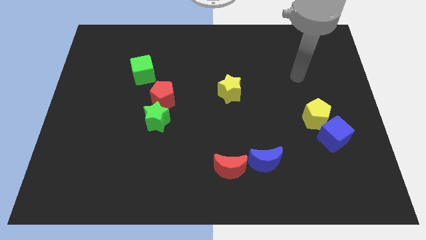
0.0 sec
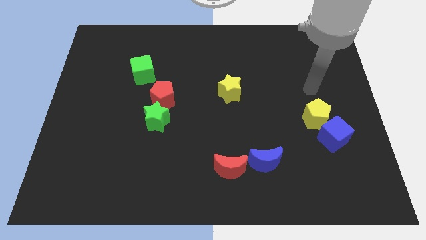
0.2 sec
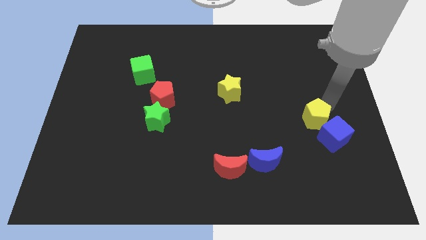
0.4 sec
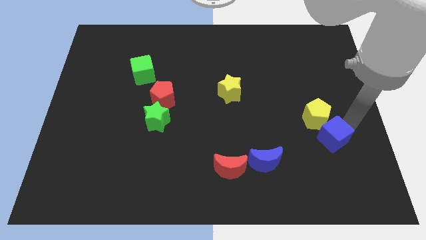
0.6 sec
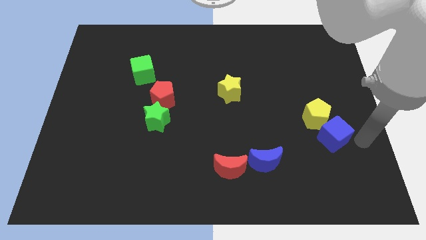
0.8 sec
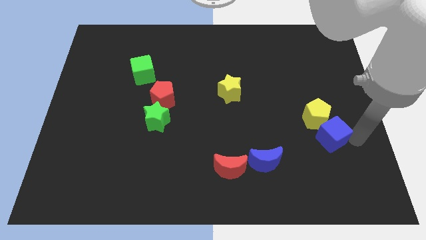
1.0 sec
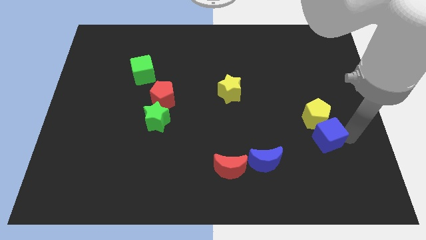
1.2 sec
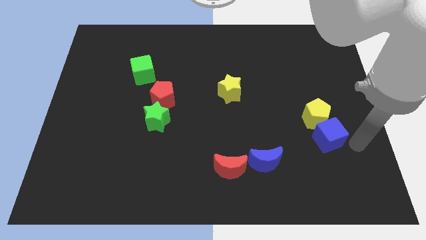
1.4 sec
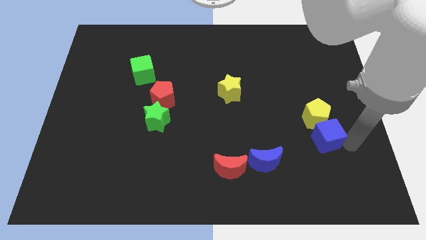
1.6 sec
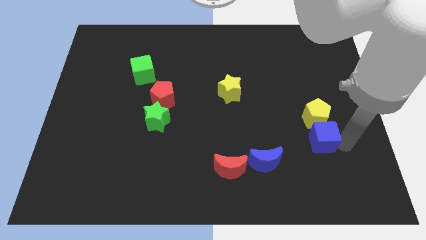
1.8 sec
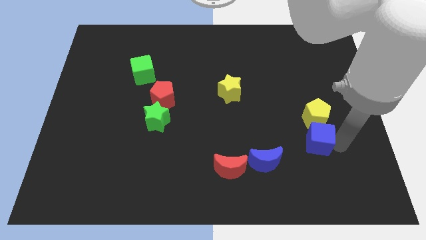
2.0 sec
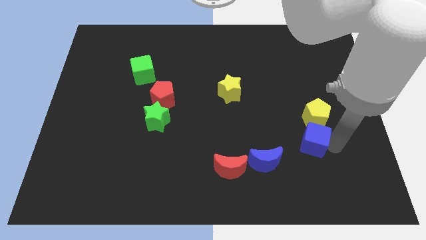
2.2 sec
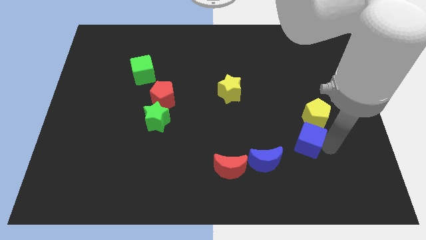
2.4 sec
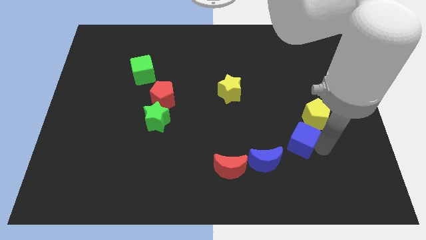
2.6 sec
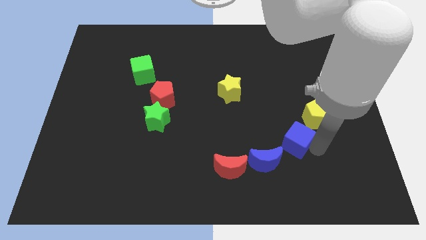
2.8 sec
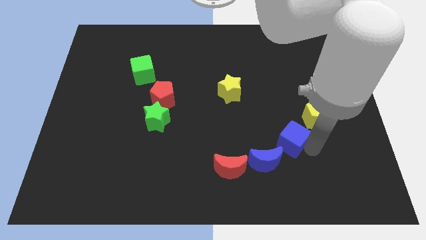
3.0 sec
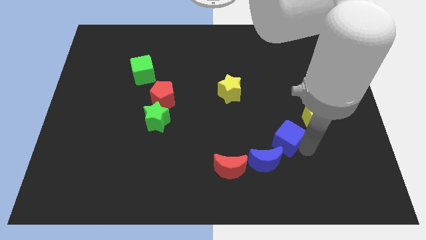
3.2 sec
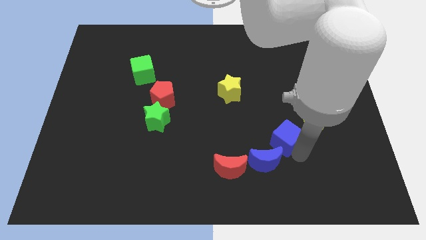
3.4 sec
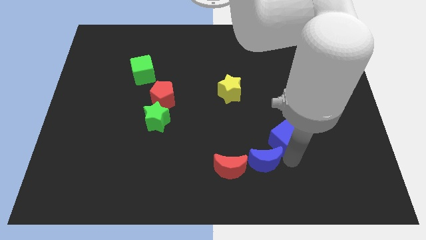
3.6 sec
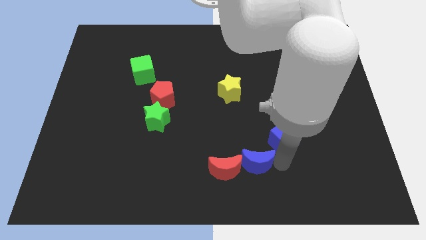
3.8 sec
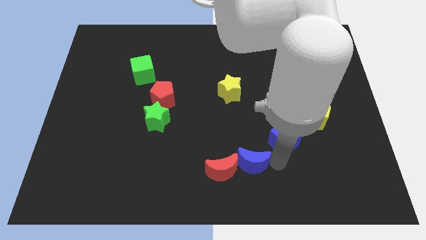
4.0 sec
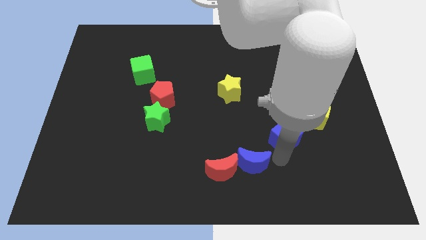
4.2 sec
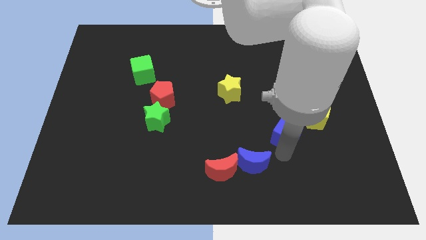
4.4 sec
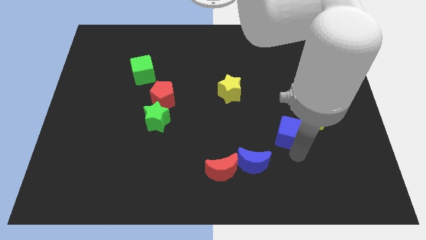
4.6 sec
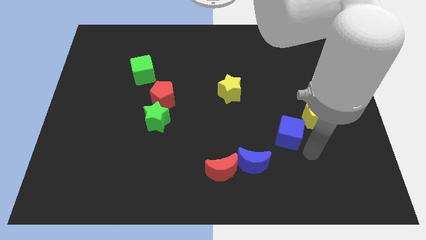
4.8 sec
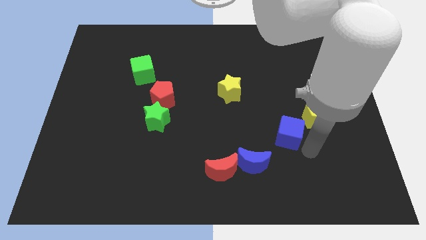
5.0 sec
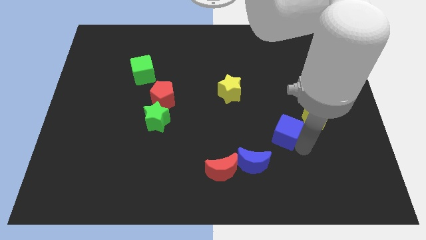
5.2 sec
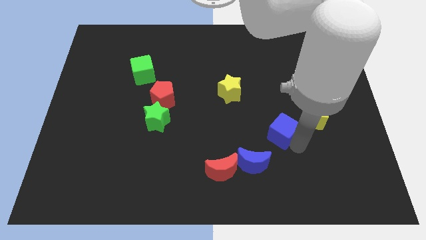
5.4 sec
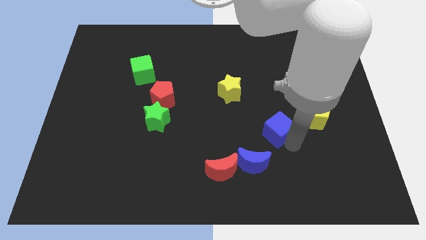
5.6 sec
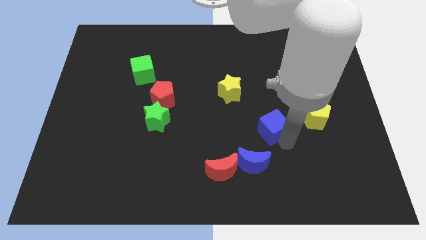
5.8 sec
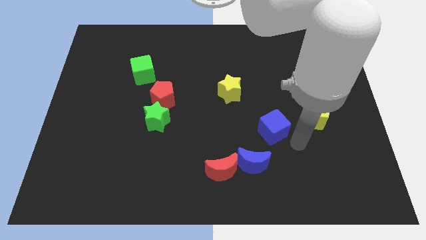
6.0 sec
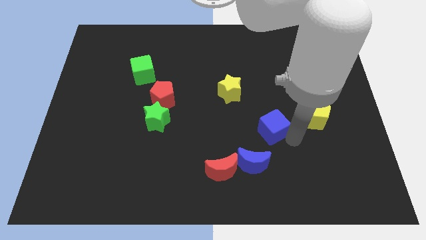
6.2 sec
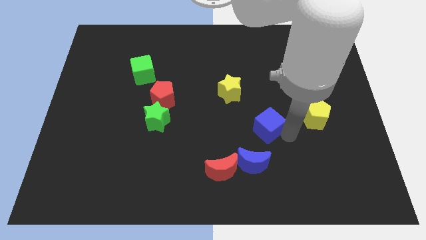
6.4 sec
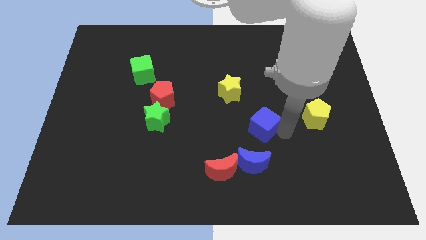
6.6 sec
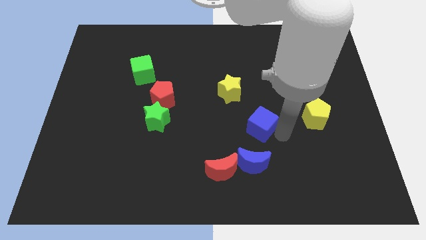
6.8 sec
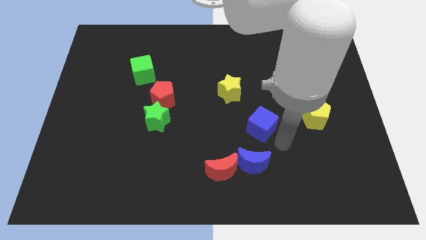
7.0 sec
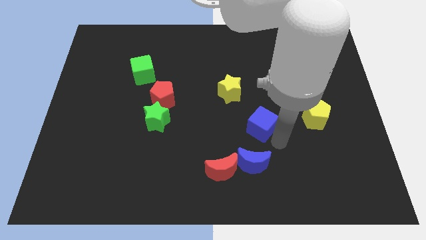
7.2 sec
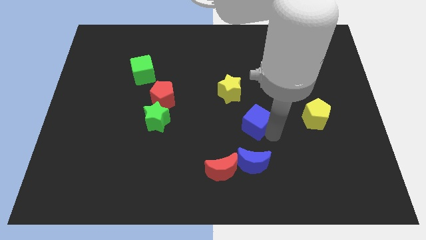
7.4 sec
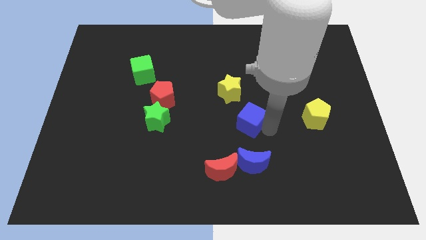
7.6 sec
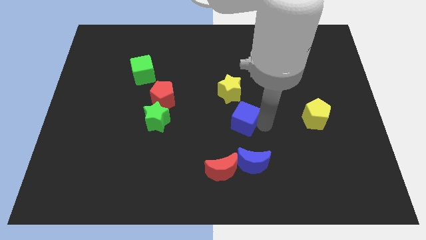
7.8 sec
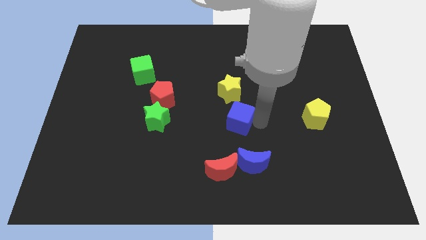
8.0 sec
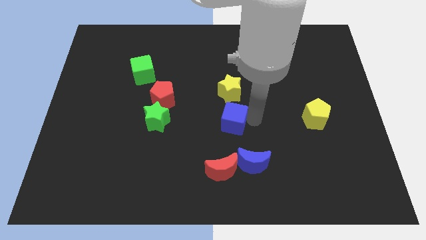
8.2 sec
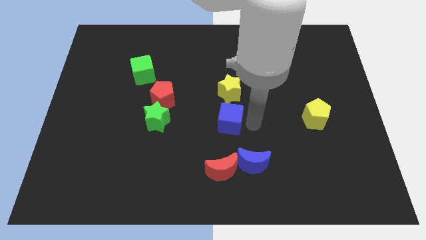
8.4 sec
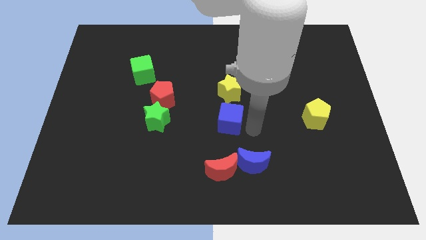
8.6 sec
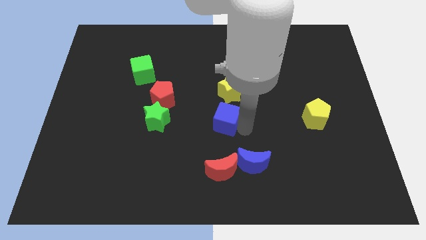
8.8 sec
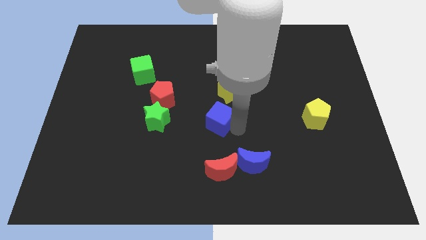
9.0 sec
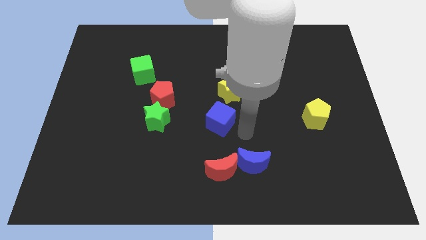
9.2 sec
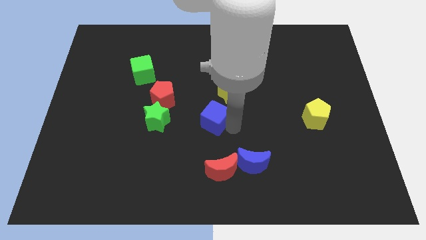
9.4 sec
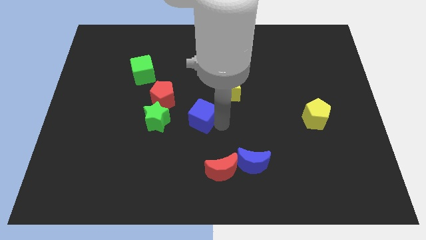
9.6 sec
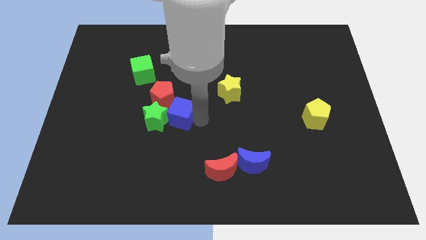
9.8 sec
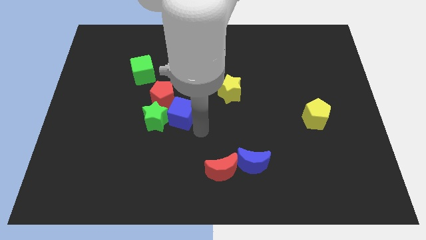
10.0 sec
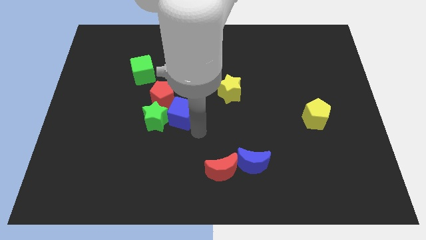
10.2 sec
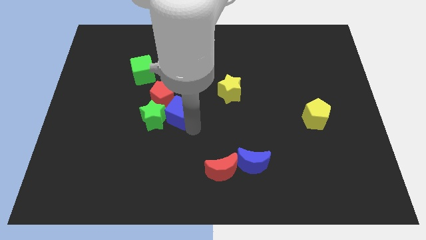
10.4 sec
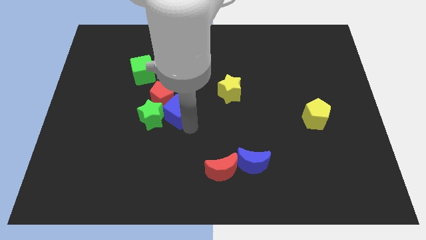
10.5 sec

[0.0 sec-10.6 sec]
slide the blue cube towards the red pentagon

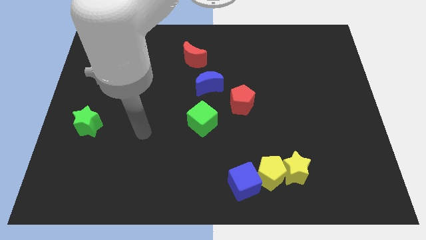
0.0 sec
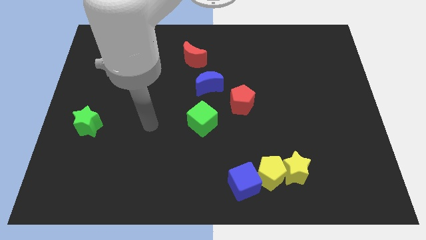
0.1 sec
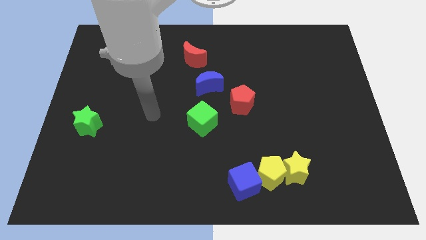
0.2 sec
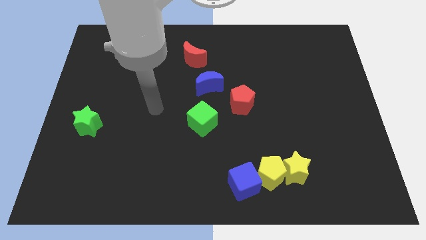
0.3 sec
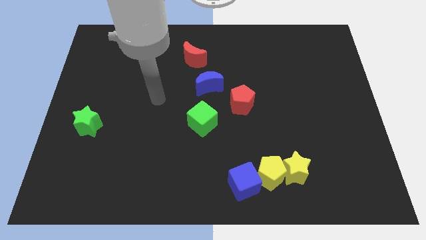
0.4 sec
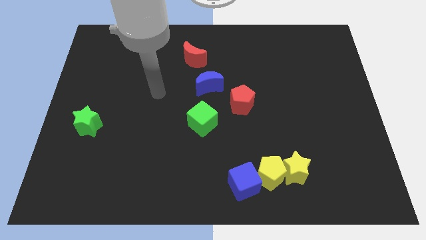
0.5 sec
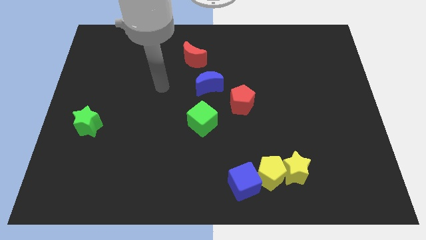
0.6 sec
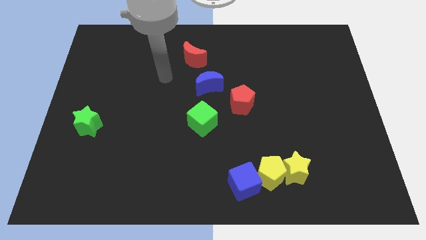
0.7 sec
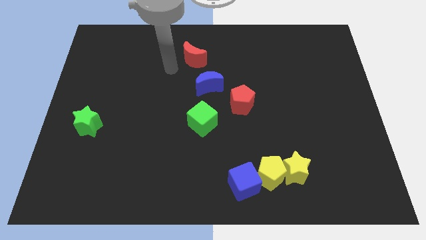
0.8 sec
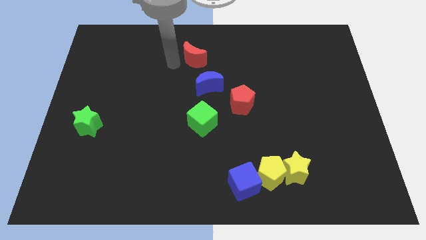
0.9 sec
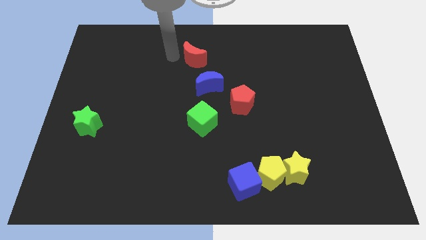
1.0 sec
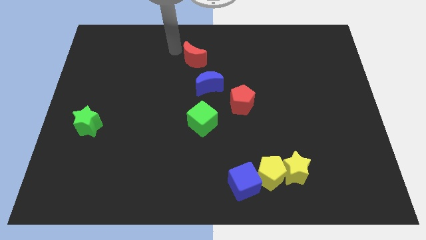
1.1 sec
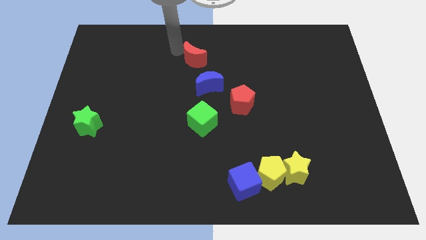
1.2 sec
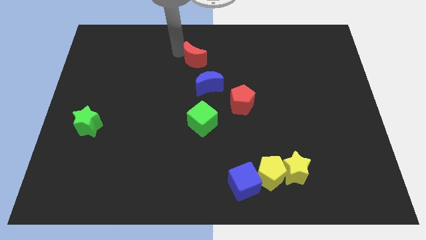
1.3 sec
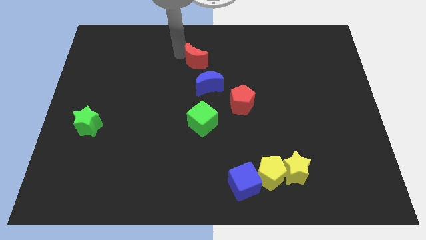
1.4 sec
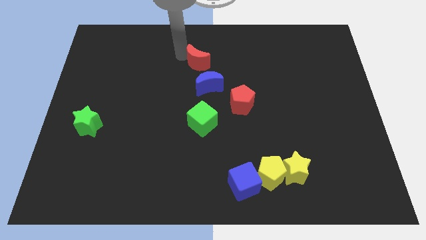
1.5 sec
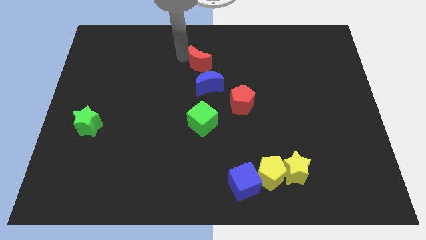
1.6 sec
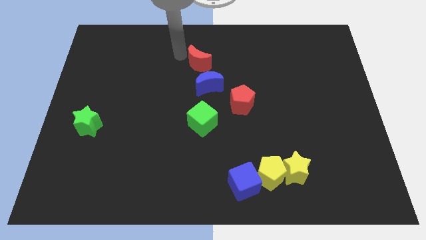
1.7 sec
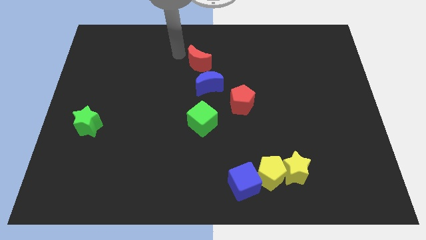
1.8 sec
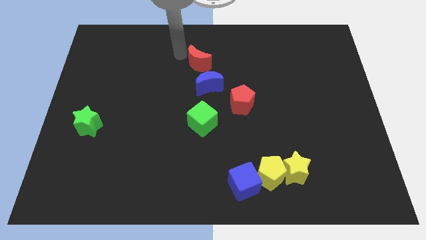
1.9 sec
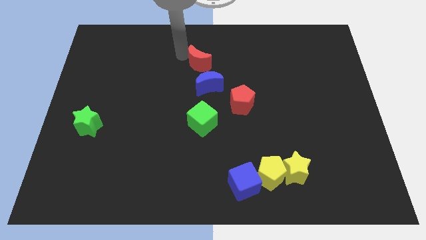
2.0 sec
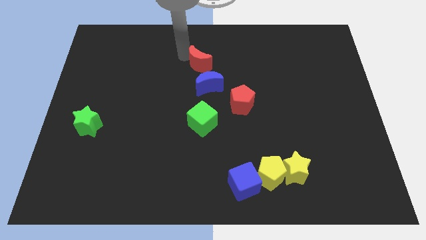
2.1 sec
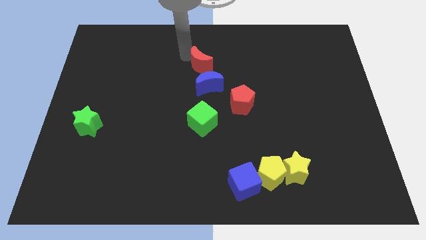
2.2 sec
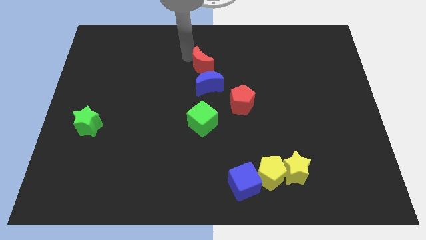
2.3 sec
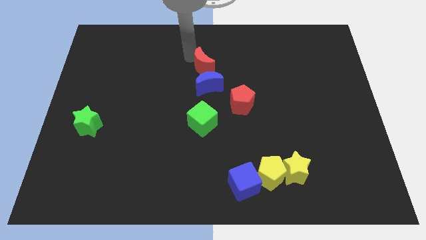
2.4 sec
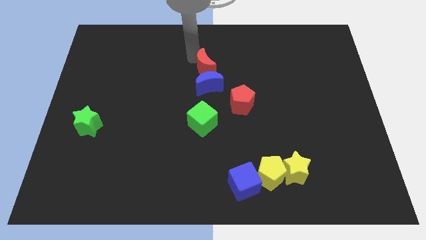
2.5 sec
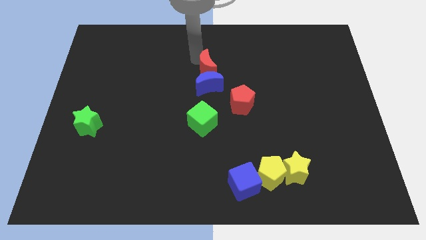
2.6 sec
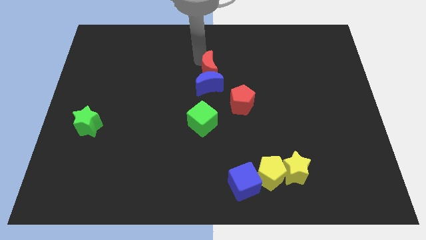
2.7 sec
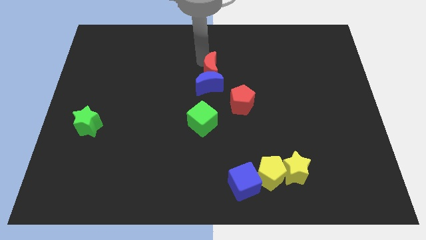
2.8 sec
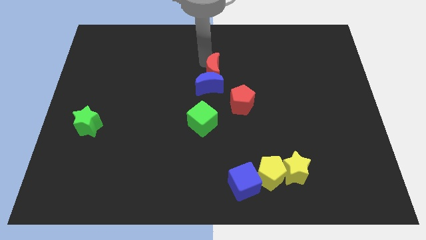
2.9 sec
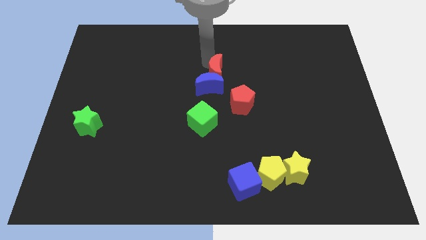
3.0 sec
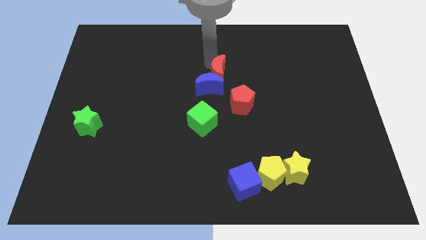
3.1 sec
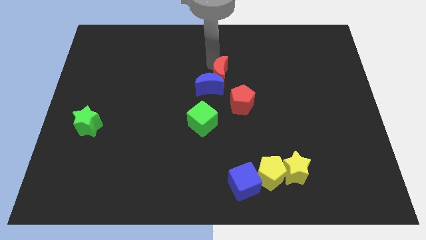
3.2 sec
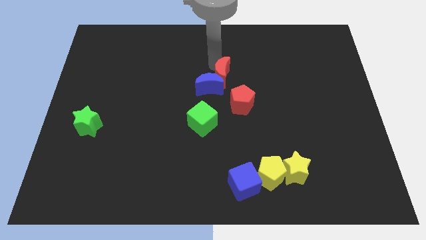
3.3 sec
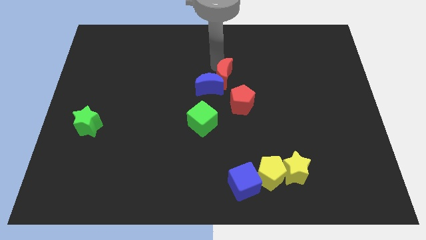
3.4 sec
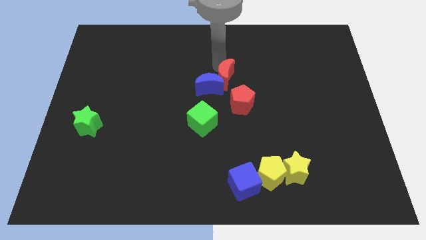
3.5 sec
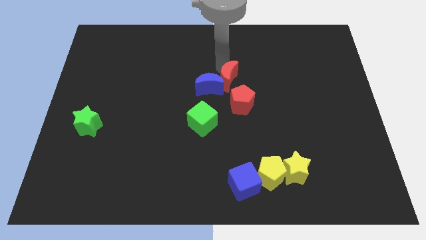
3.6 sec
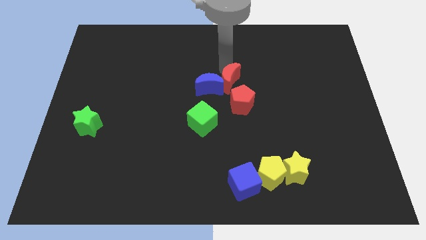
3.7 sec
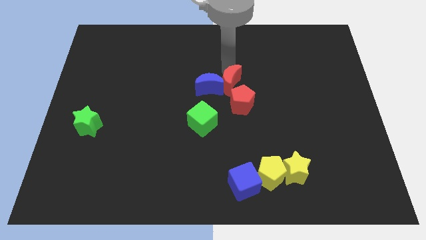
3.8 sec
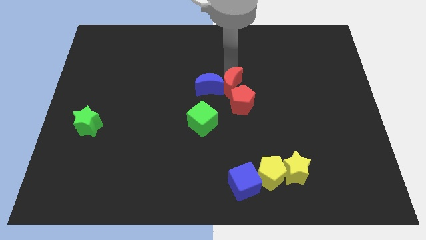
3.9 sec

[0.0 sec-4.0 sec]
push the red moon next to the red pentagon
